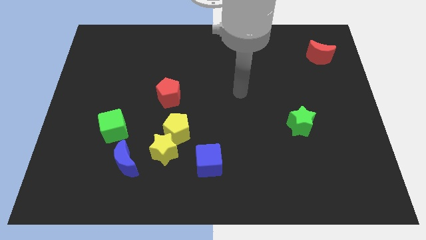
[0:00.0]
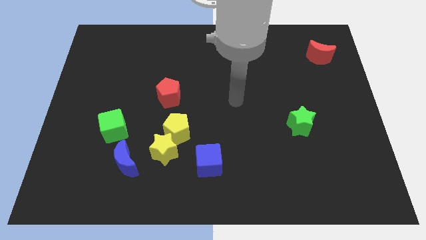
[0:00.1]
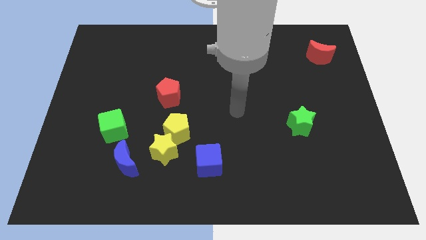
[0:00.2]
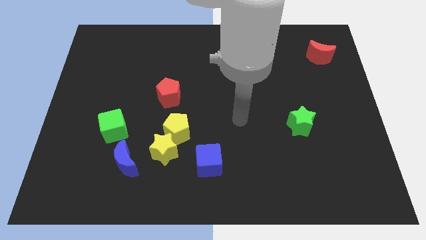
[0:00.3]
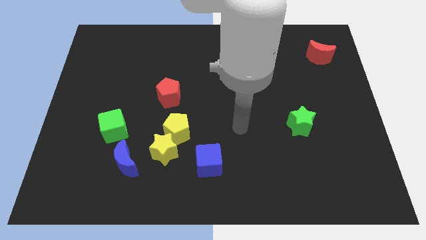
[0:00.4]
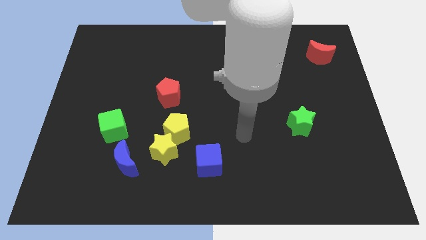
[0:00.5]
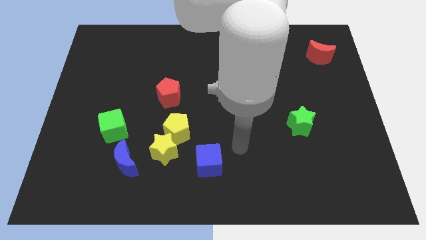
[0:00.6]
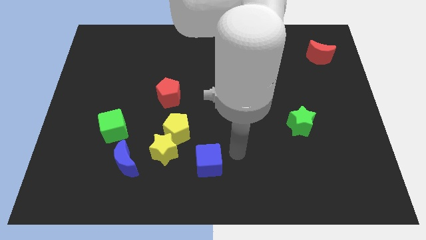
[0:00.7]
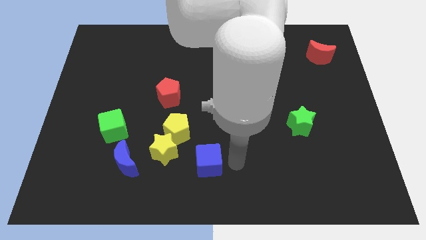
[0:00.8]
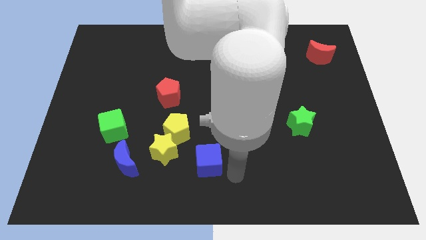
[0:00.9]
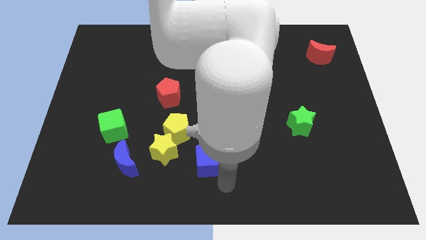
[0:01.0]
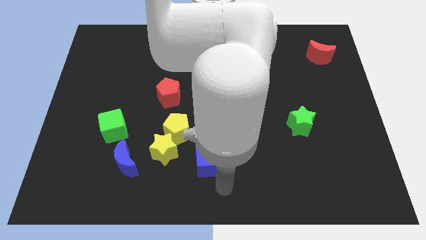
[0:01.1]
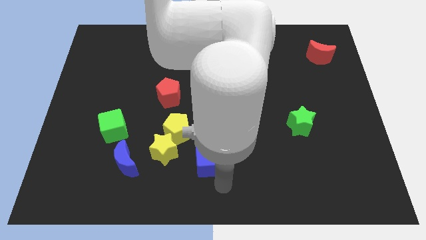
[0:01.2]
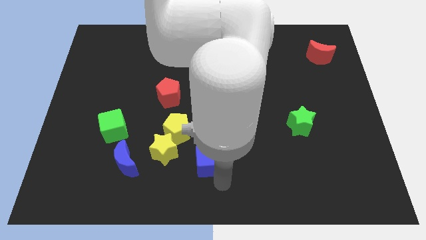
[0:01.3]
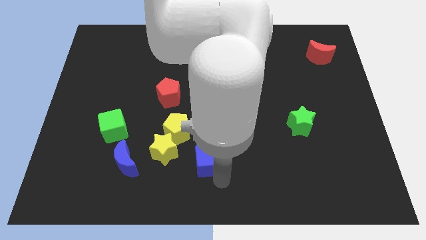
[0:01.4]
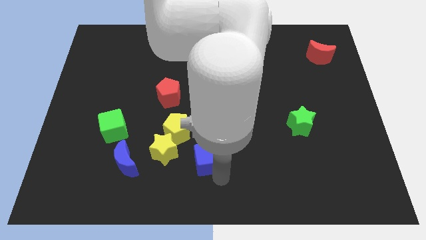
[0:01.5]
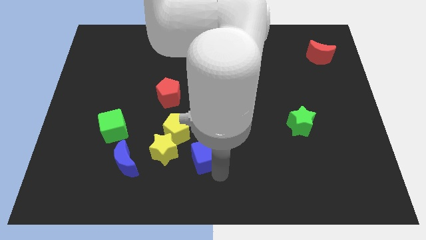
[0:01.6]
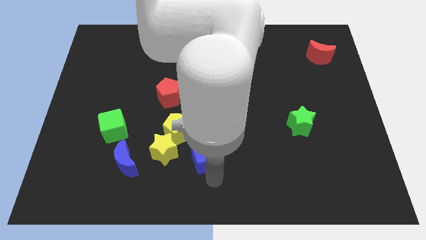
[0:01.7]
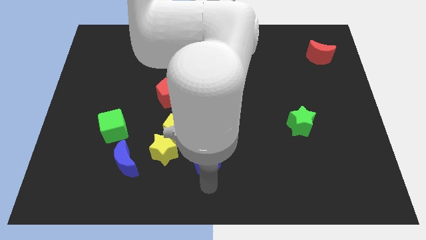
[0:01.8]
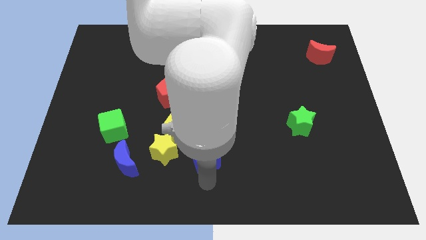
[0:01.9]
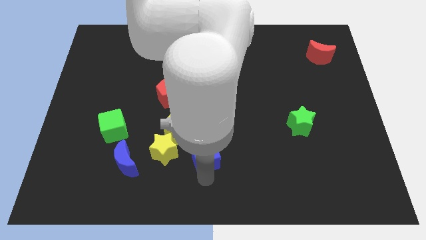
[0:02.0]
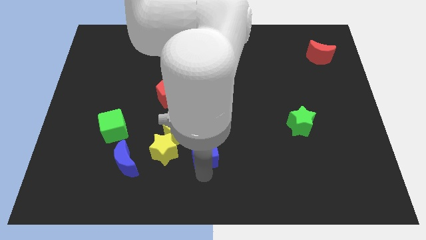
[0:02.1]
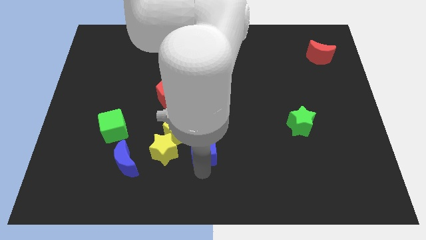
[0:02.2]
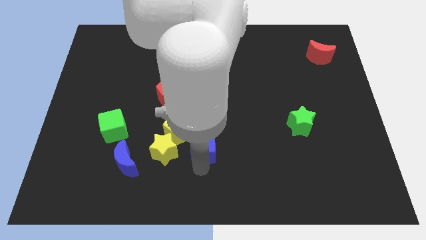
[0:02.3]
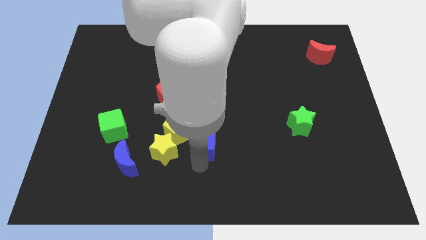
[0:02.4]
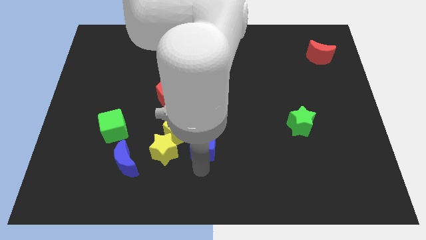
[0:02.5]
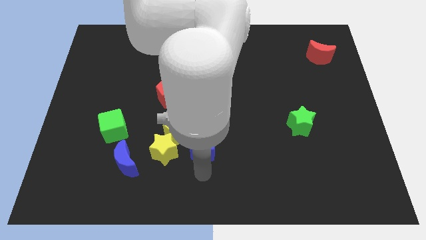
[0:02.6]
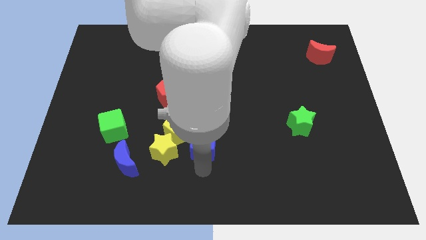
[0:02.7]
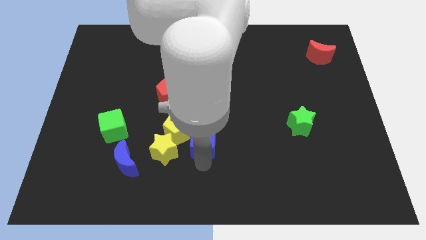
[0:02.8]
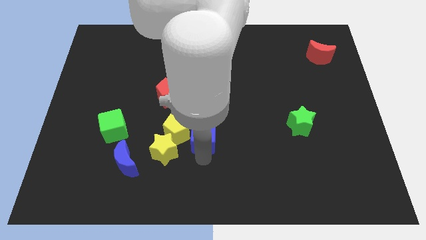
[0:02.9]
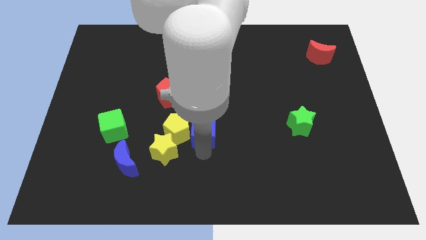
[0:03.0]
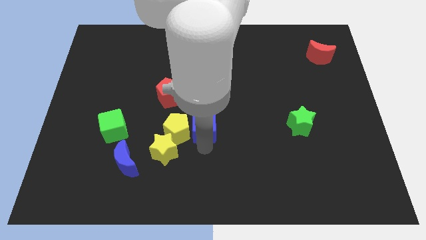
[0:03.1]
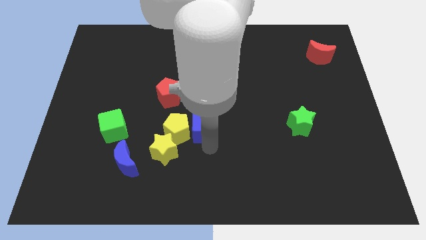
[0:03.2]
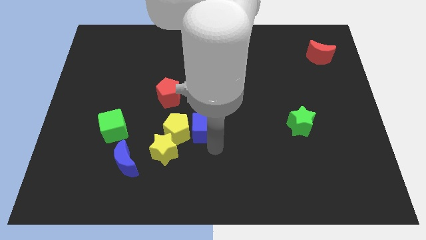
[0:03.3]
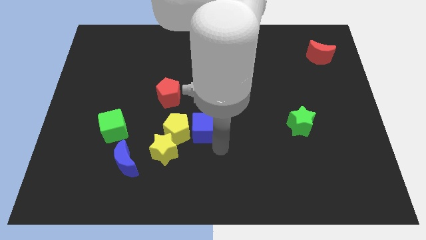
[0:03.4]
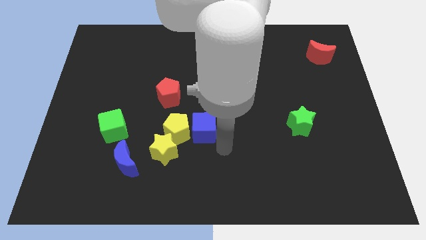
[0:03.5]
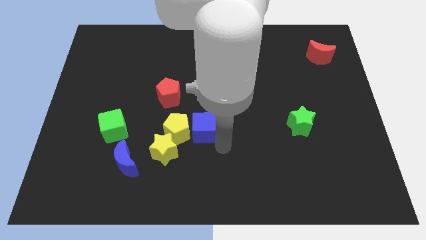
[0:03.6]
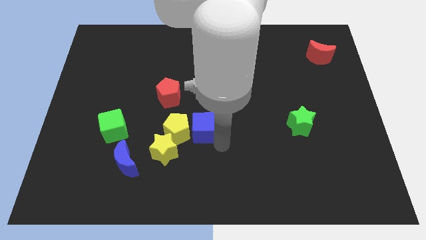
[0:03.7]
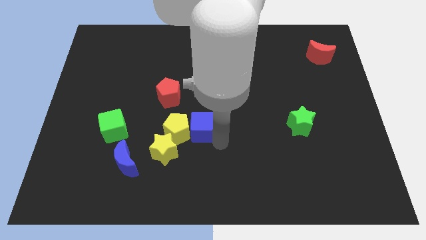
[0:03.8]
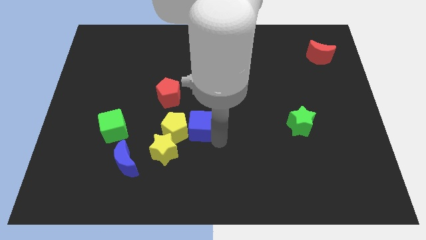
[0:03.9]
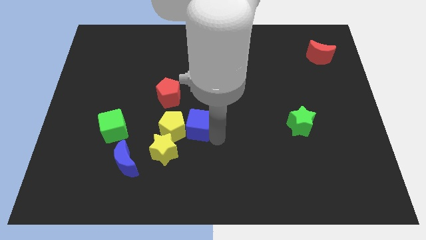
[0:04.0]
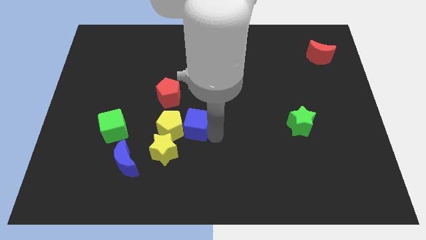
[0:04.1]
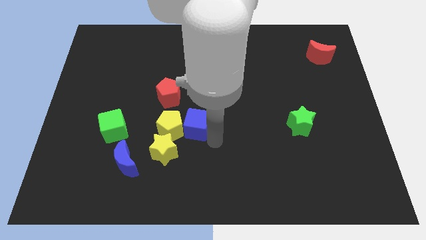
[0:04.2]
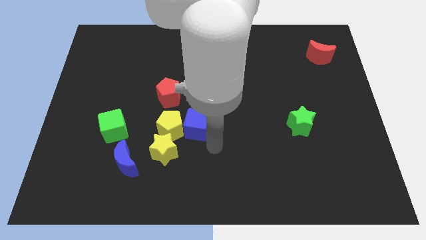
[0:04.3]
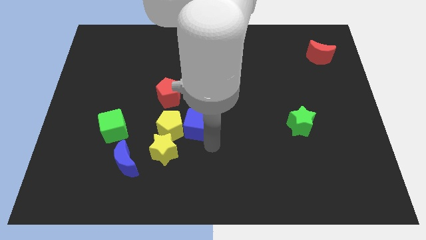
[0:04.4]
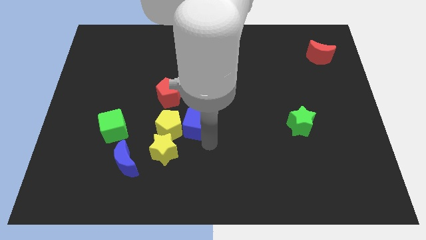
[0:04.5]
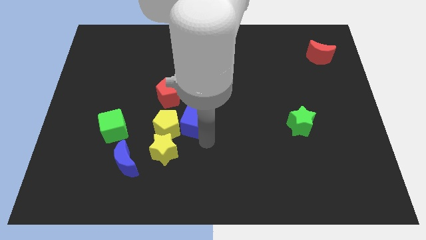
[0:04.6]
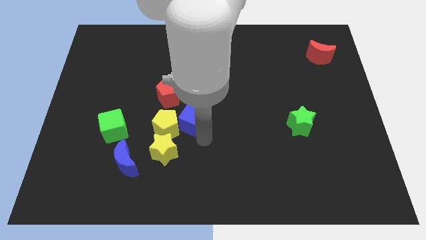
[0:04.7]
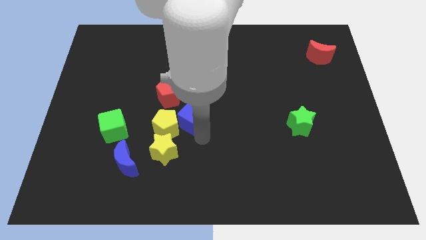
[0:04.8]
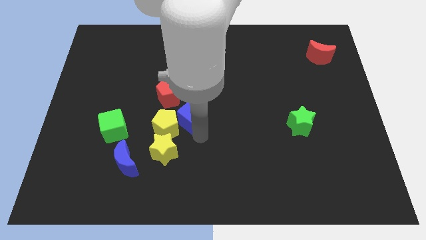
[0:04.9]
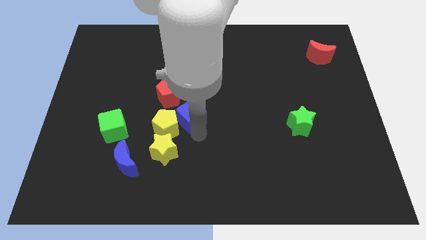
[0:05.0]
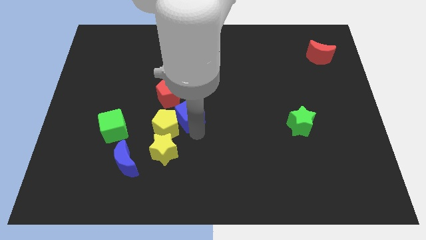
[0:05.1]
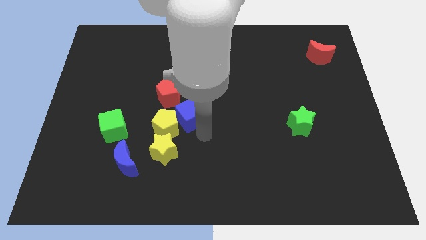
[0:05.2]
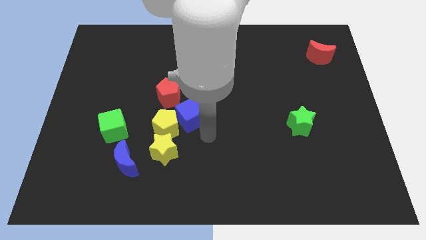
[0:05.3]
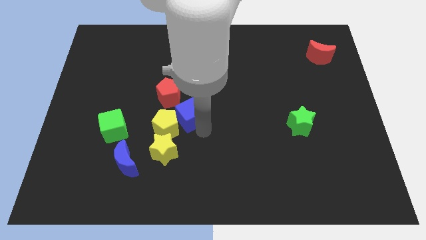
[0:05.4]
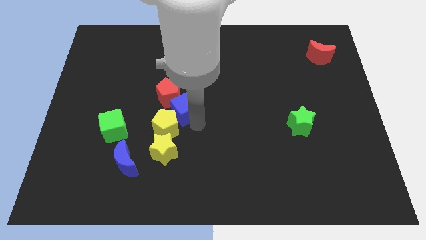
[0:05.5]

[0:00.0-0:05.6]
move the blue cube towards the red pentagon

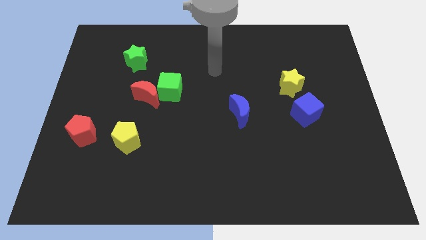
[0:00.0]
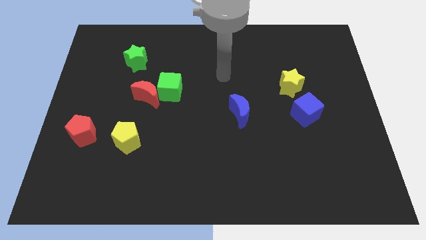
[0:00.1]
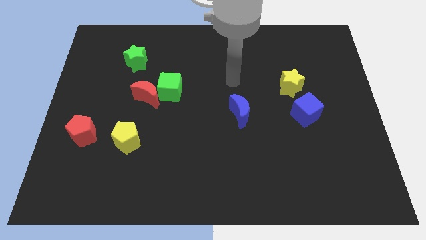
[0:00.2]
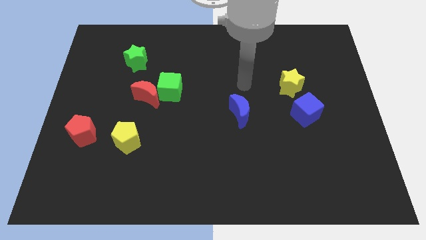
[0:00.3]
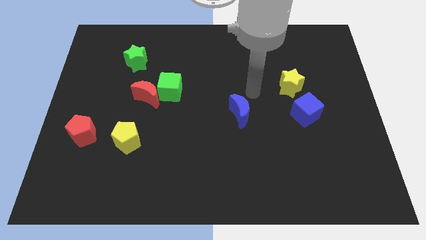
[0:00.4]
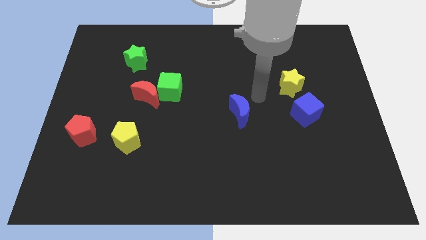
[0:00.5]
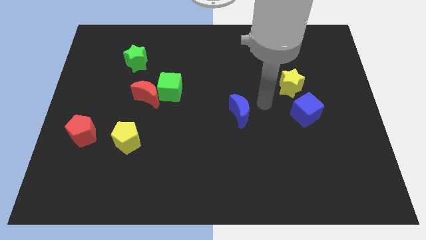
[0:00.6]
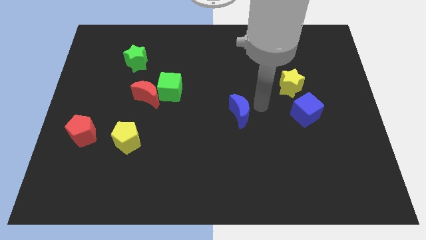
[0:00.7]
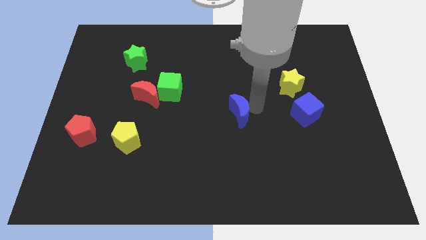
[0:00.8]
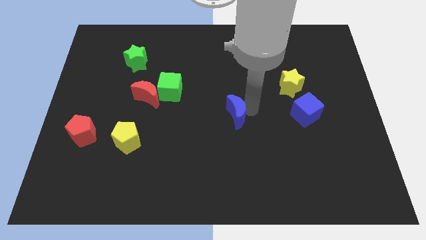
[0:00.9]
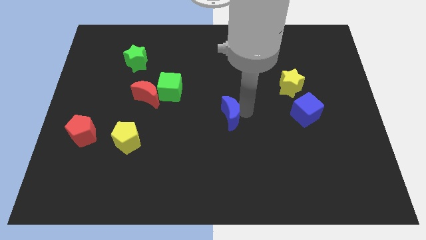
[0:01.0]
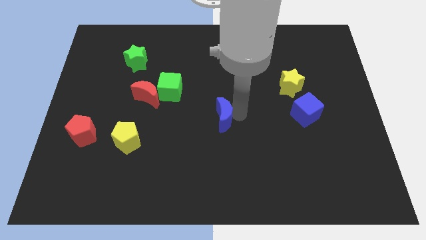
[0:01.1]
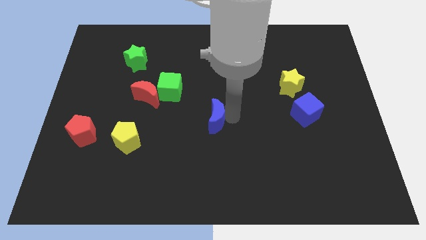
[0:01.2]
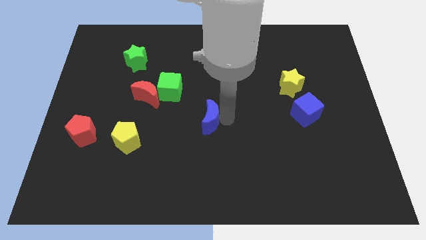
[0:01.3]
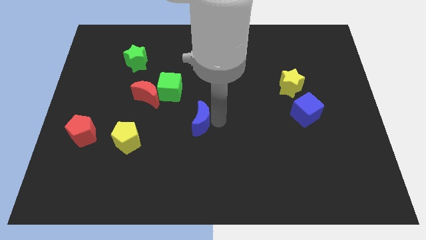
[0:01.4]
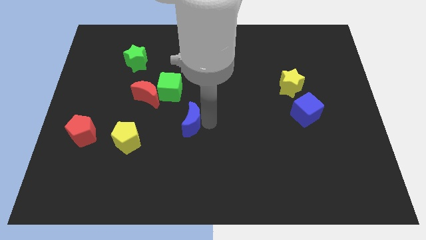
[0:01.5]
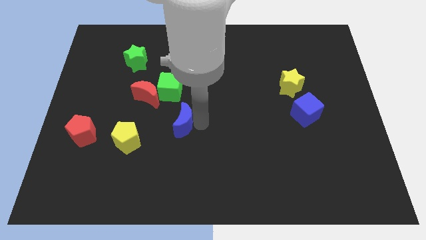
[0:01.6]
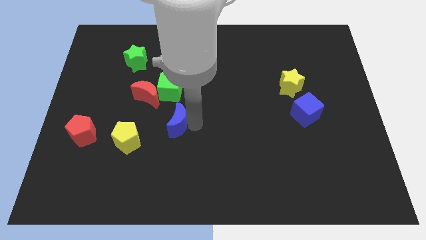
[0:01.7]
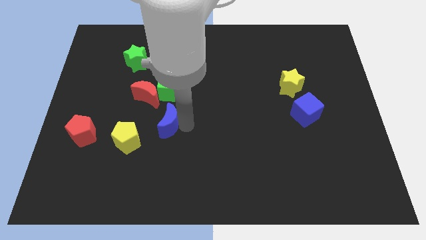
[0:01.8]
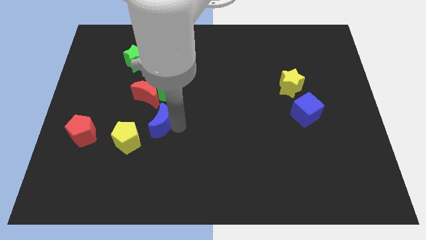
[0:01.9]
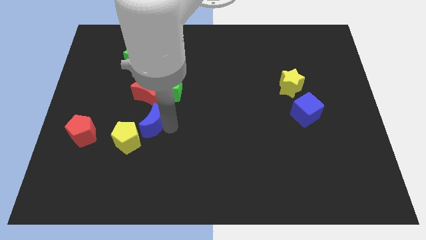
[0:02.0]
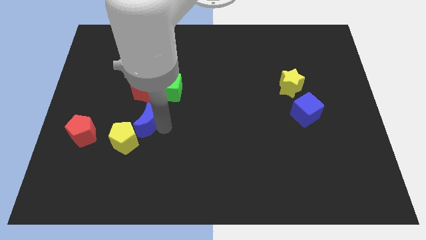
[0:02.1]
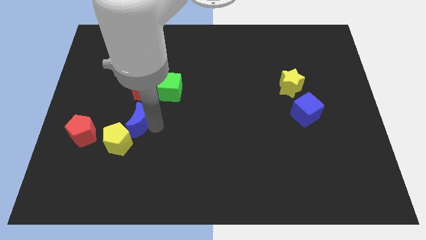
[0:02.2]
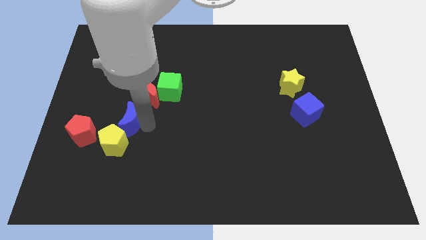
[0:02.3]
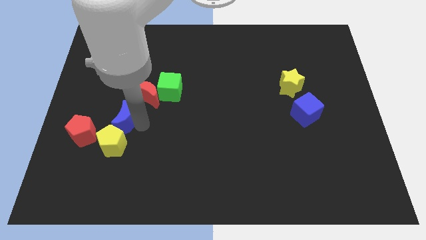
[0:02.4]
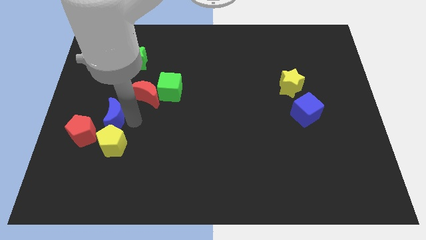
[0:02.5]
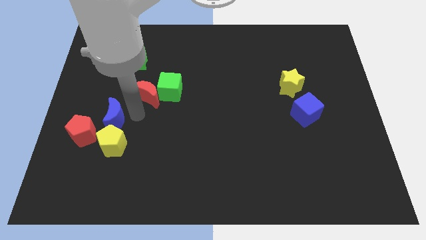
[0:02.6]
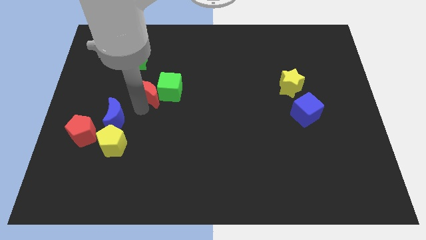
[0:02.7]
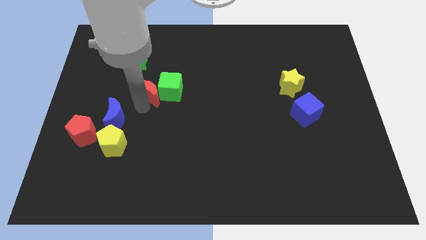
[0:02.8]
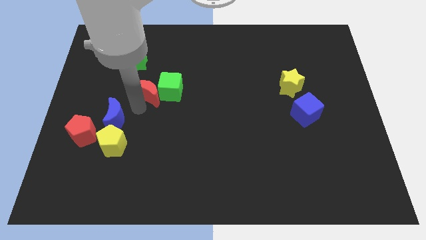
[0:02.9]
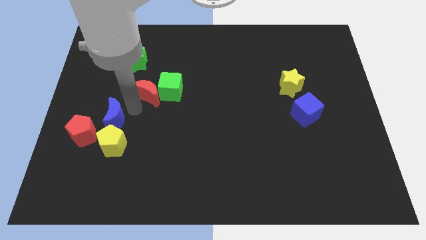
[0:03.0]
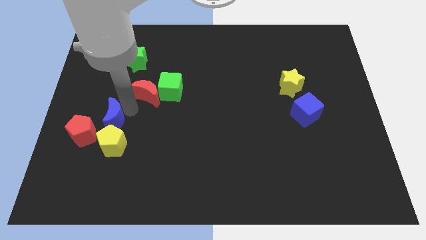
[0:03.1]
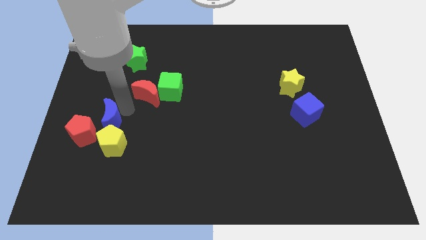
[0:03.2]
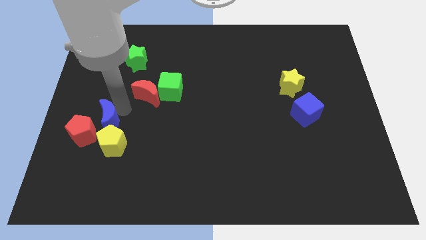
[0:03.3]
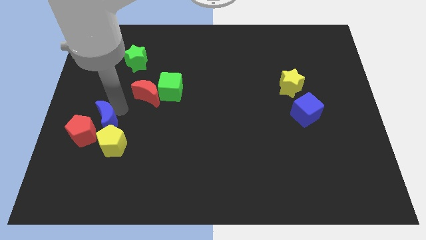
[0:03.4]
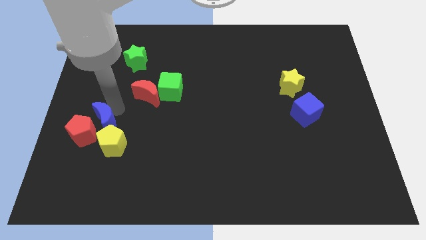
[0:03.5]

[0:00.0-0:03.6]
put the blue moon next to the red pentagon
